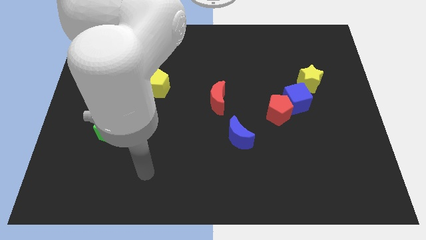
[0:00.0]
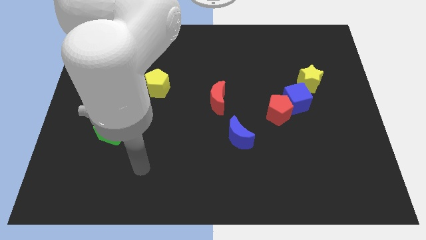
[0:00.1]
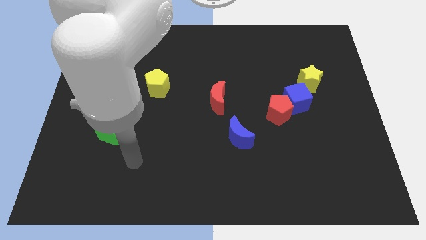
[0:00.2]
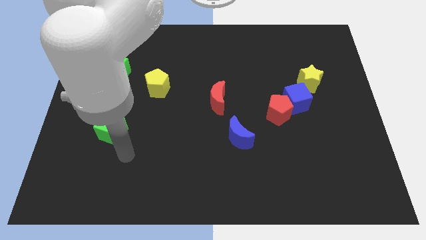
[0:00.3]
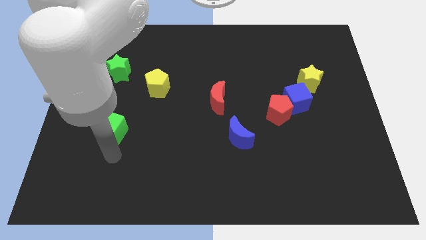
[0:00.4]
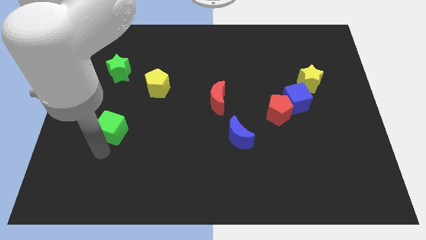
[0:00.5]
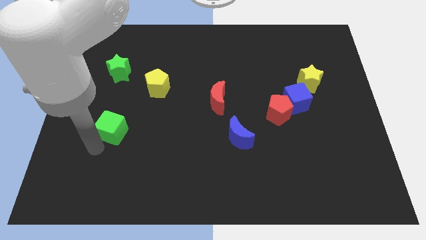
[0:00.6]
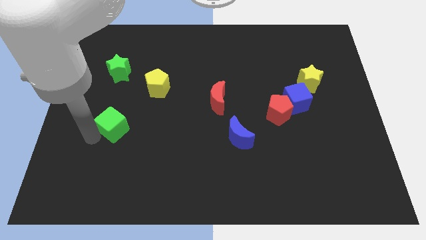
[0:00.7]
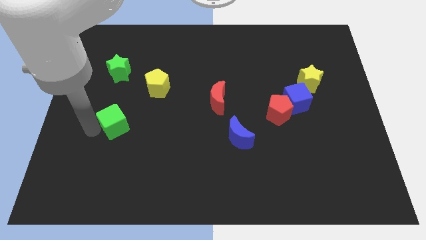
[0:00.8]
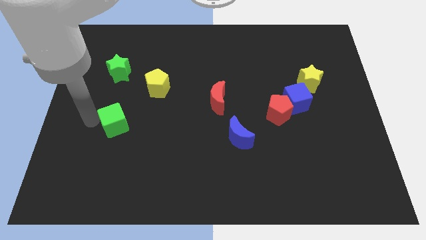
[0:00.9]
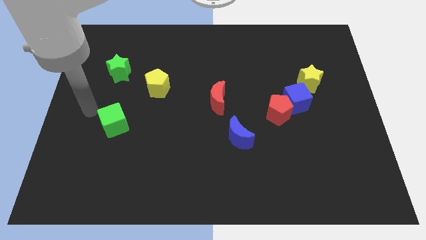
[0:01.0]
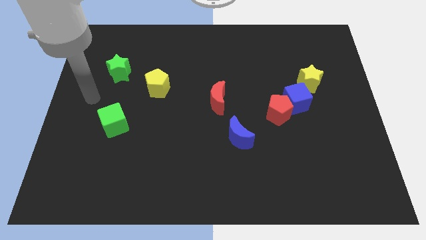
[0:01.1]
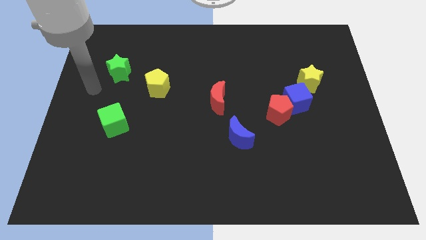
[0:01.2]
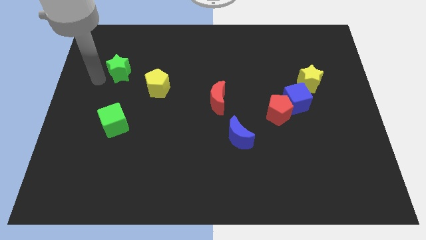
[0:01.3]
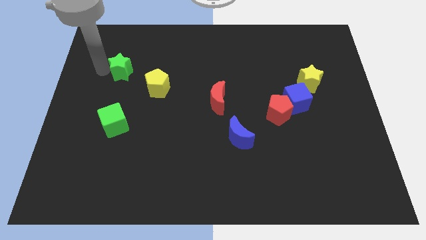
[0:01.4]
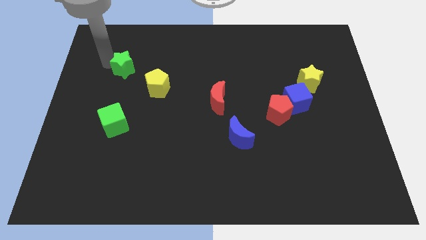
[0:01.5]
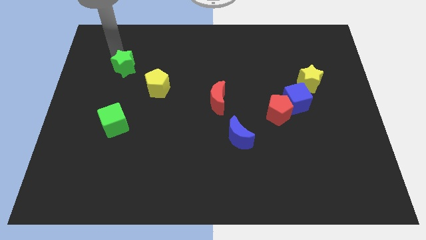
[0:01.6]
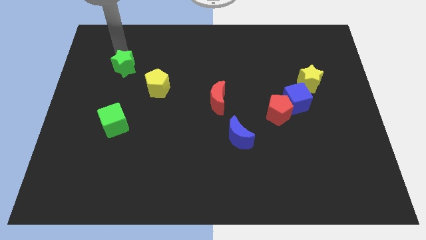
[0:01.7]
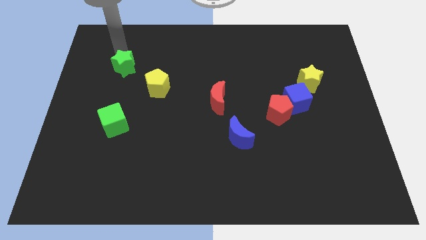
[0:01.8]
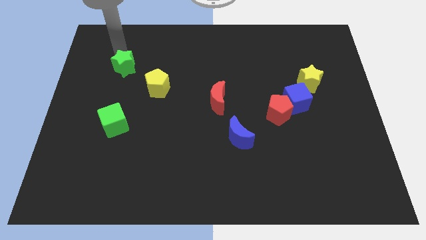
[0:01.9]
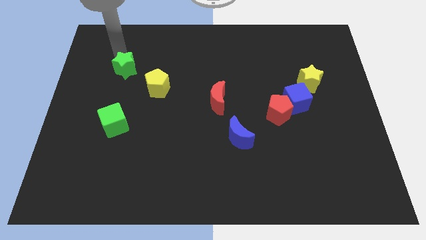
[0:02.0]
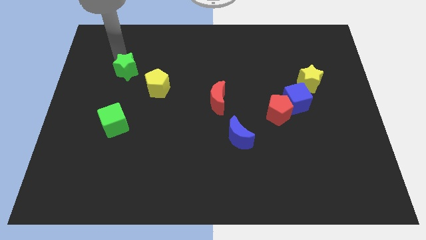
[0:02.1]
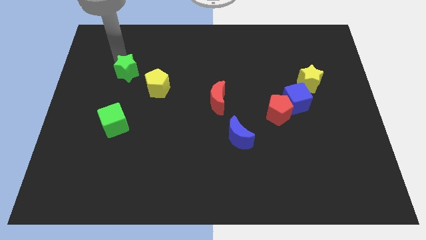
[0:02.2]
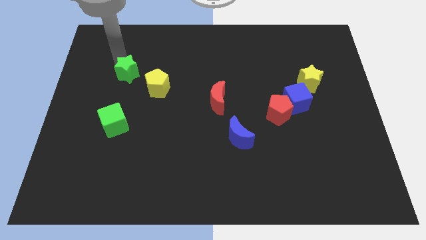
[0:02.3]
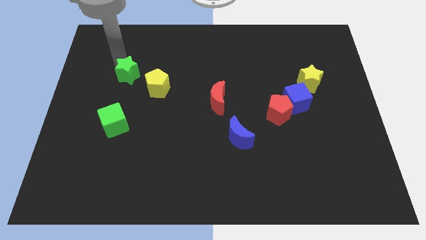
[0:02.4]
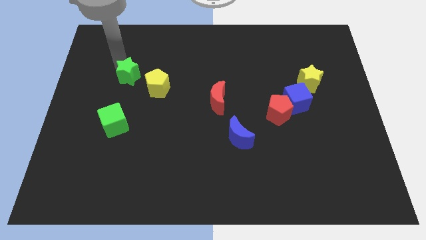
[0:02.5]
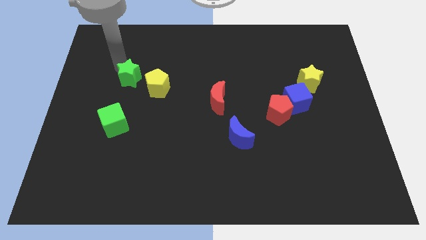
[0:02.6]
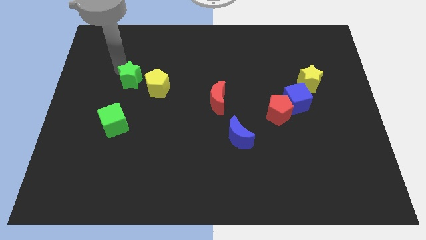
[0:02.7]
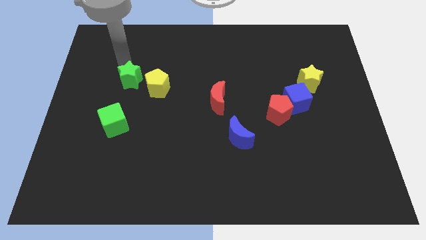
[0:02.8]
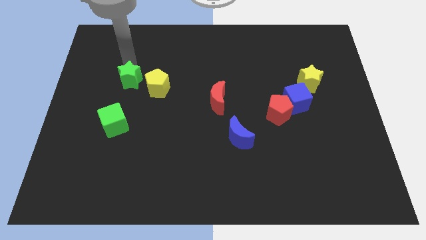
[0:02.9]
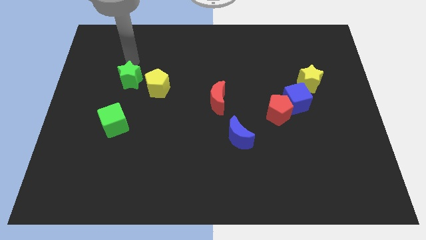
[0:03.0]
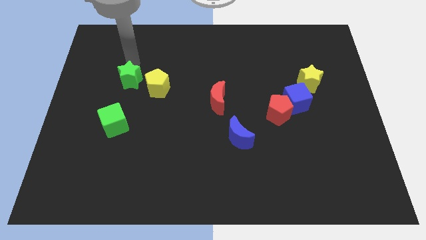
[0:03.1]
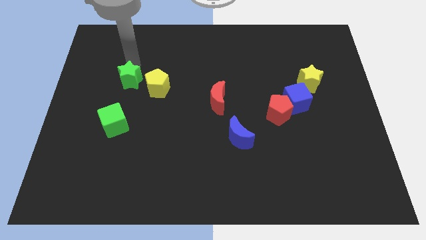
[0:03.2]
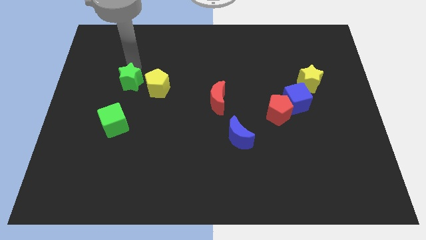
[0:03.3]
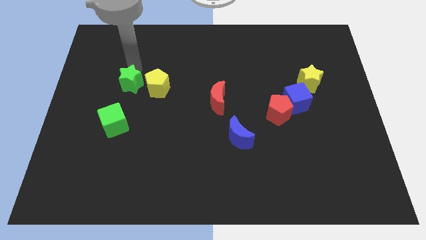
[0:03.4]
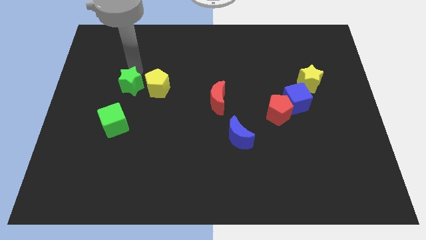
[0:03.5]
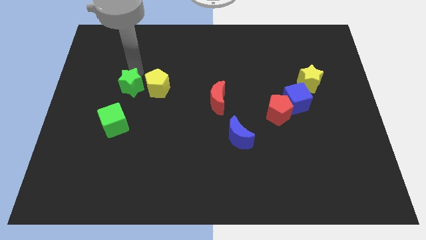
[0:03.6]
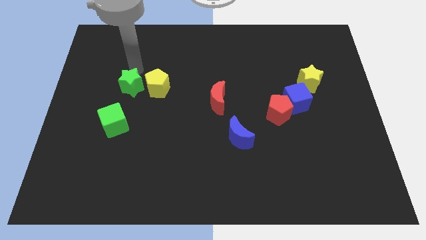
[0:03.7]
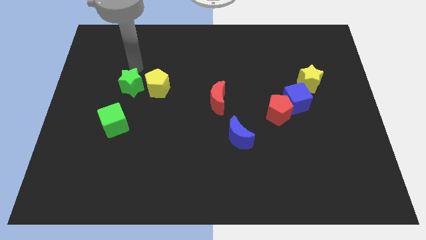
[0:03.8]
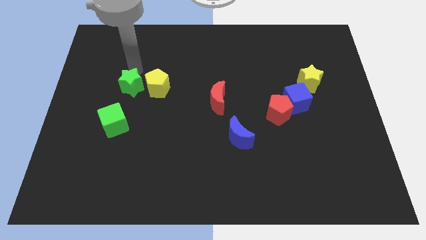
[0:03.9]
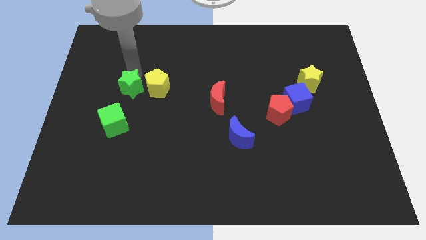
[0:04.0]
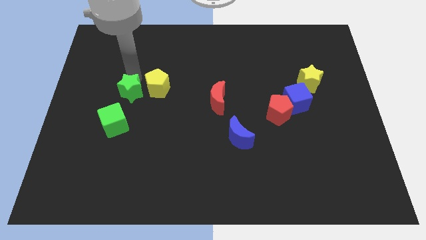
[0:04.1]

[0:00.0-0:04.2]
slightly move the green star downwards and then right

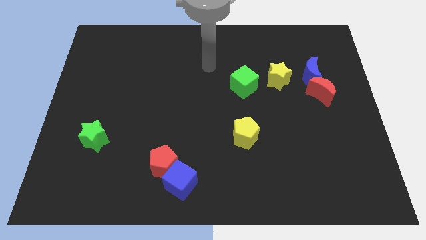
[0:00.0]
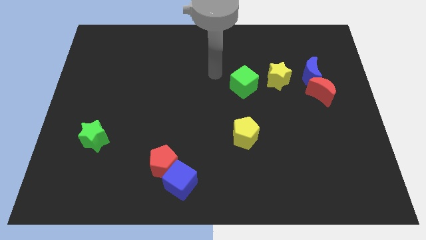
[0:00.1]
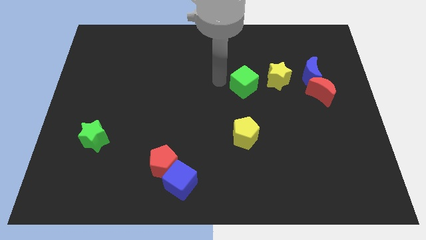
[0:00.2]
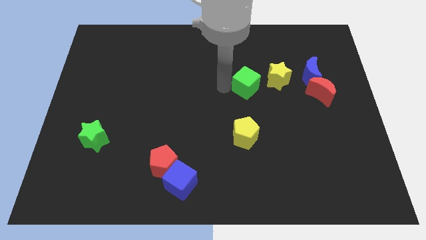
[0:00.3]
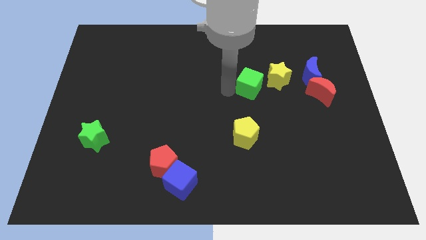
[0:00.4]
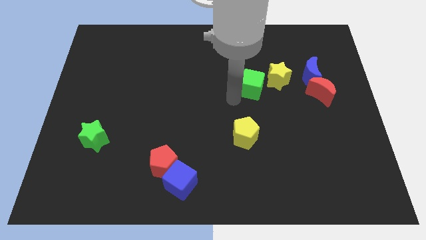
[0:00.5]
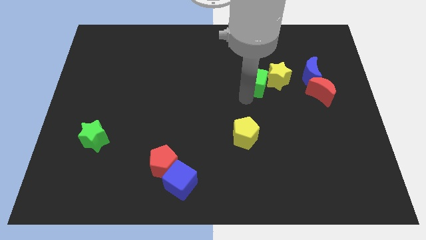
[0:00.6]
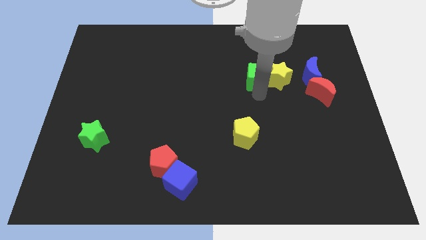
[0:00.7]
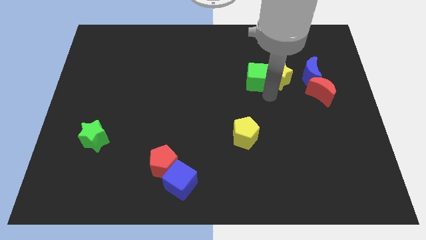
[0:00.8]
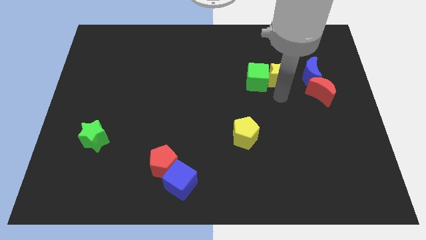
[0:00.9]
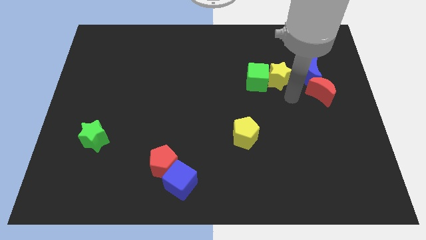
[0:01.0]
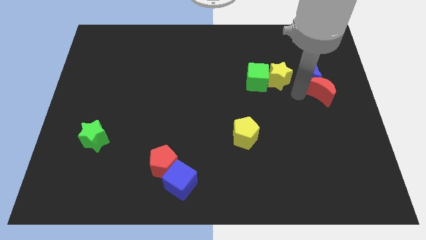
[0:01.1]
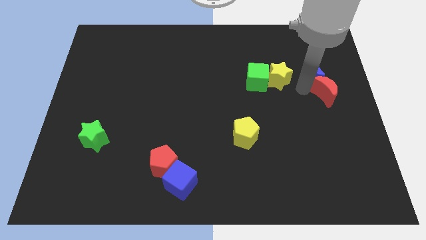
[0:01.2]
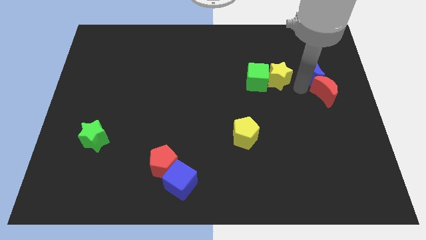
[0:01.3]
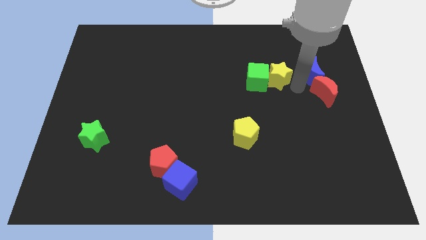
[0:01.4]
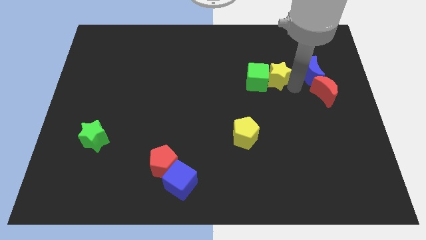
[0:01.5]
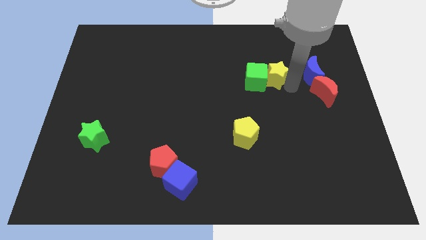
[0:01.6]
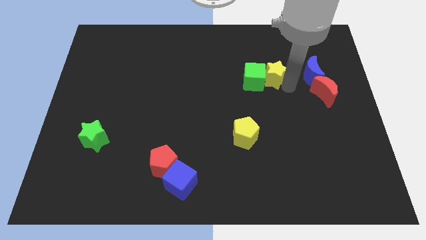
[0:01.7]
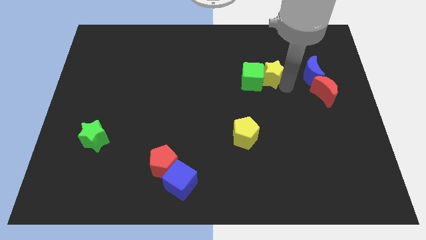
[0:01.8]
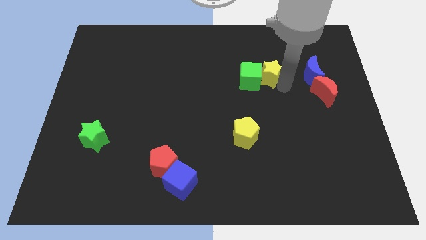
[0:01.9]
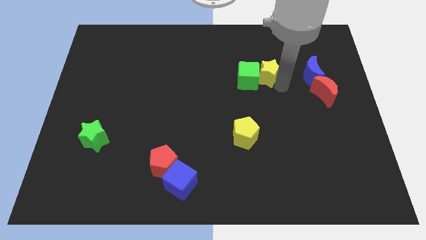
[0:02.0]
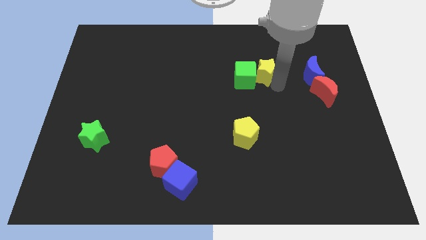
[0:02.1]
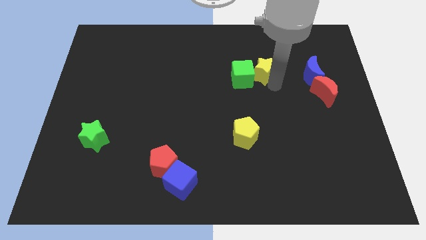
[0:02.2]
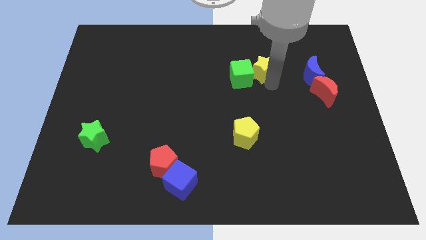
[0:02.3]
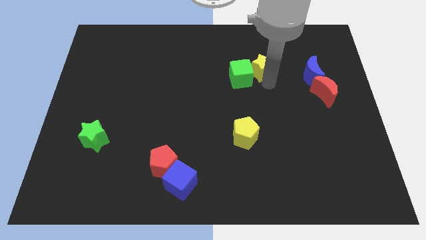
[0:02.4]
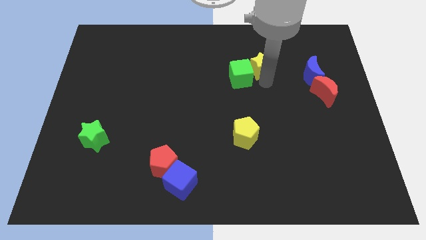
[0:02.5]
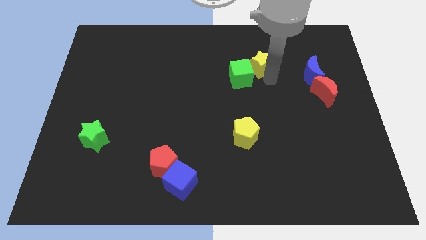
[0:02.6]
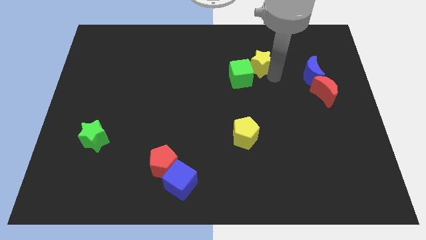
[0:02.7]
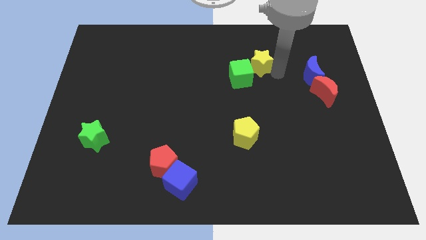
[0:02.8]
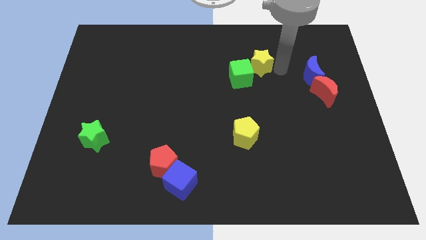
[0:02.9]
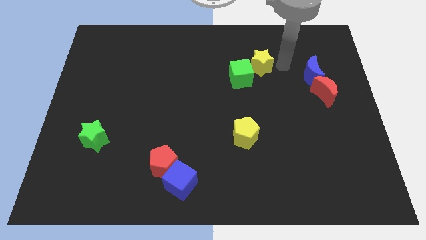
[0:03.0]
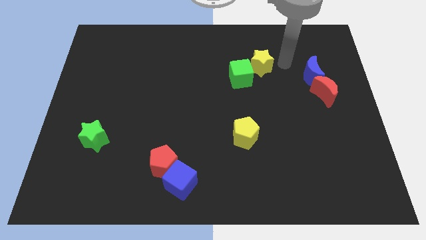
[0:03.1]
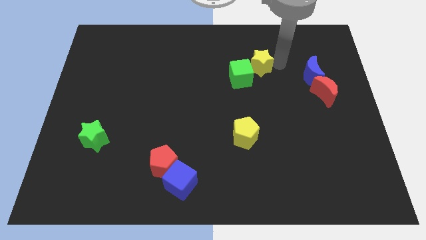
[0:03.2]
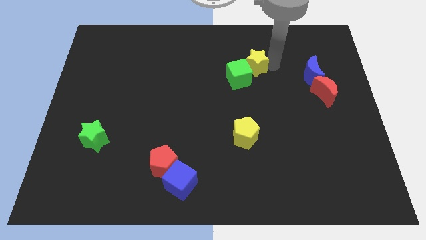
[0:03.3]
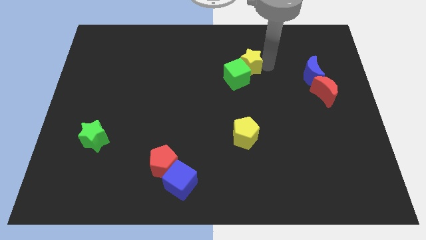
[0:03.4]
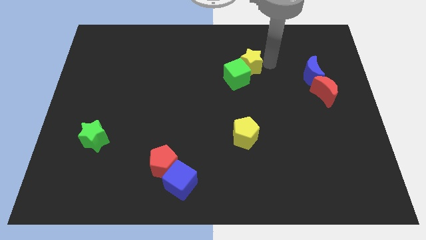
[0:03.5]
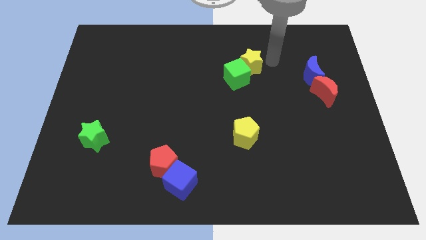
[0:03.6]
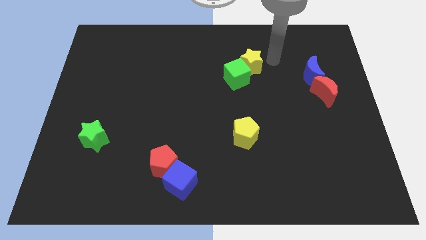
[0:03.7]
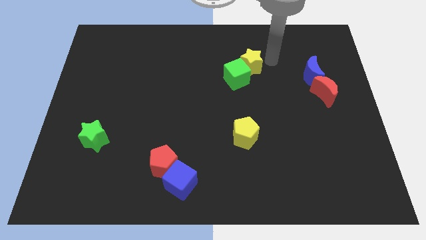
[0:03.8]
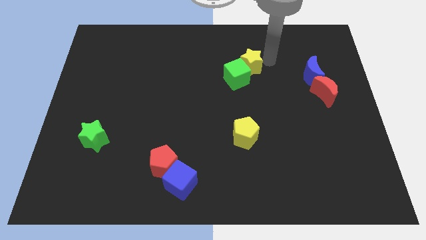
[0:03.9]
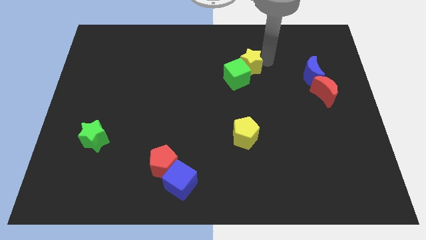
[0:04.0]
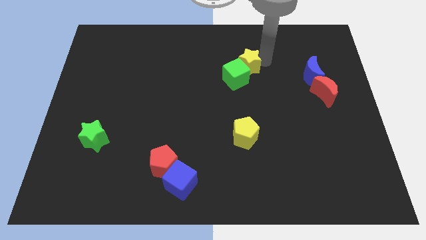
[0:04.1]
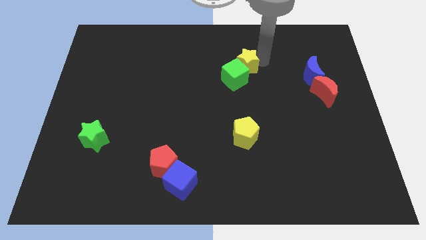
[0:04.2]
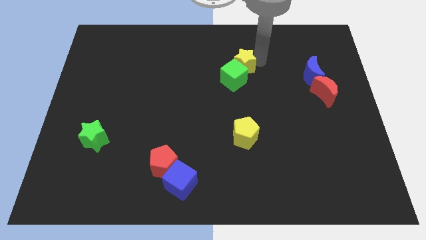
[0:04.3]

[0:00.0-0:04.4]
move the yellow star a little bit left
